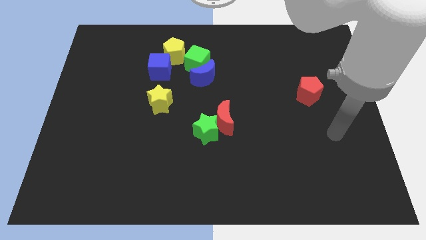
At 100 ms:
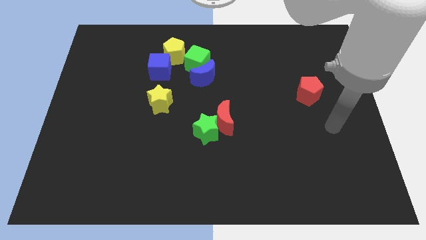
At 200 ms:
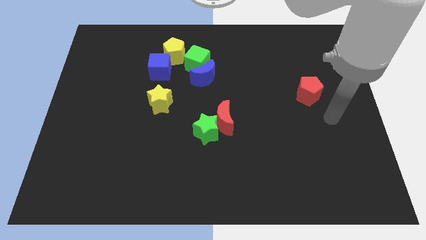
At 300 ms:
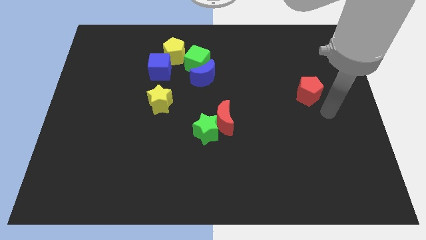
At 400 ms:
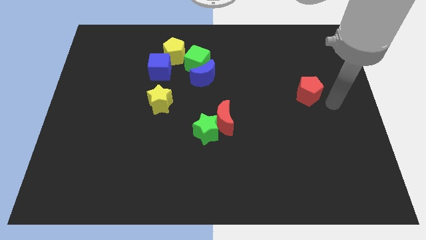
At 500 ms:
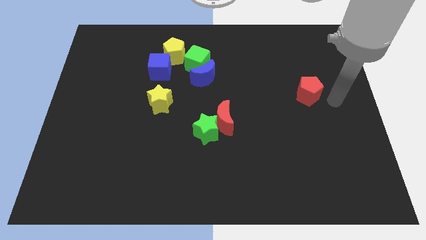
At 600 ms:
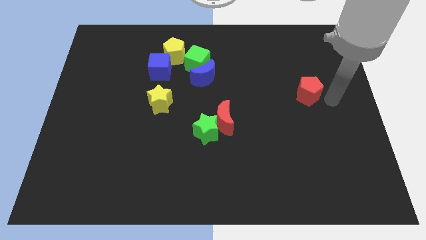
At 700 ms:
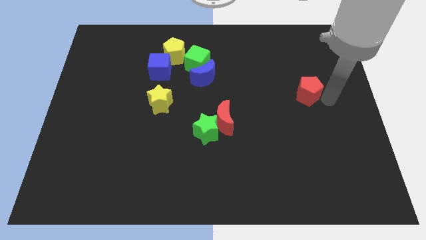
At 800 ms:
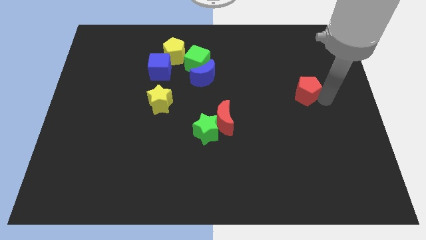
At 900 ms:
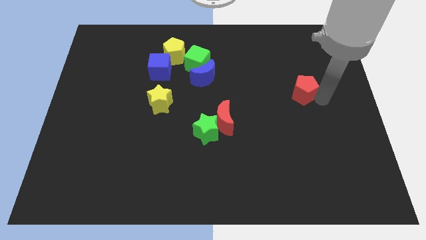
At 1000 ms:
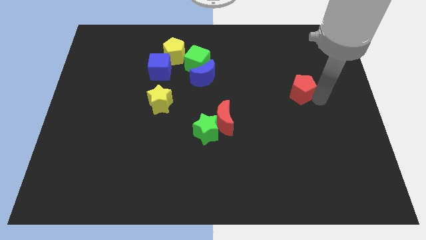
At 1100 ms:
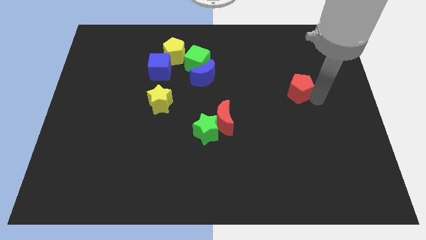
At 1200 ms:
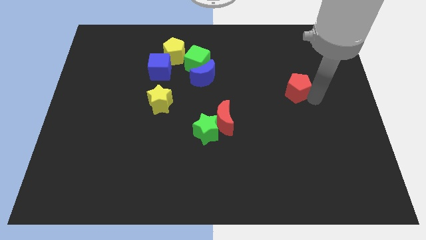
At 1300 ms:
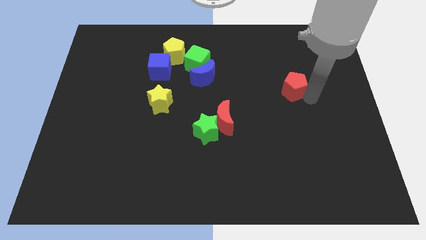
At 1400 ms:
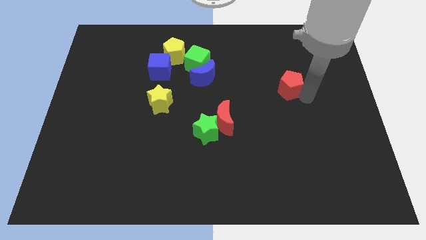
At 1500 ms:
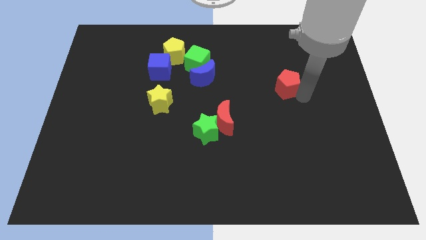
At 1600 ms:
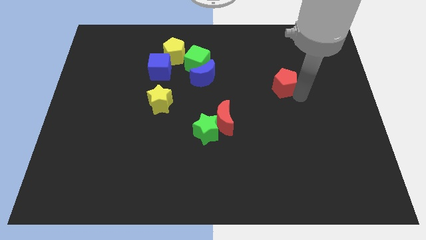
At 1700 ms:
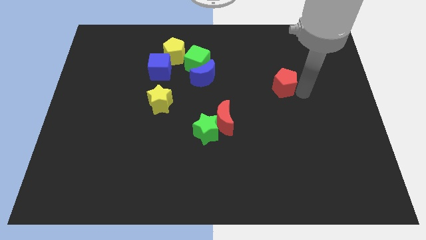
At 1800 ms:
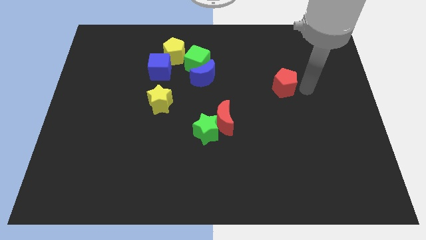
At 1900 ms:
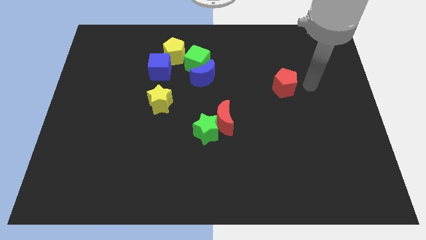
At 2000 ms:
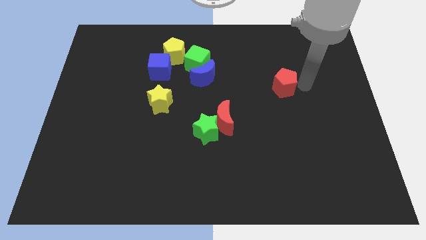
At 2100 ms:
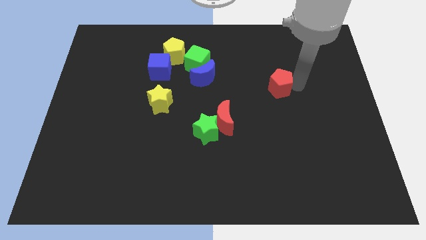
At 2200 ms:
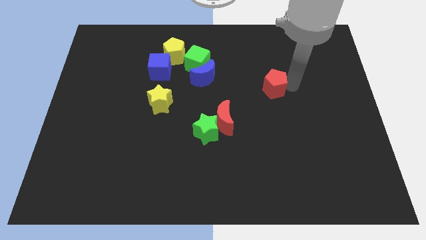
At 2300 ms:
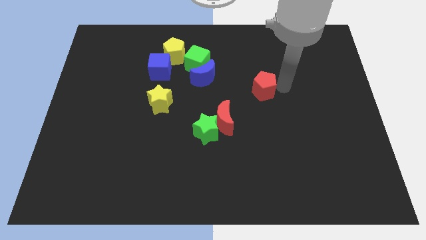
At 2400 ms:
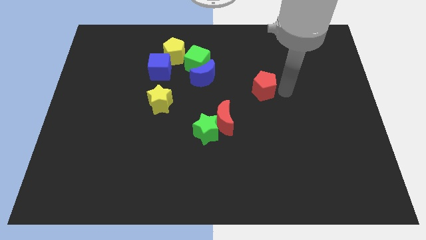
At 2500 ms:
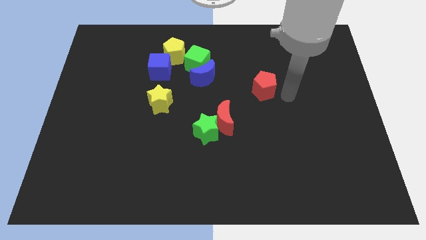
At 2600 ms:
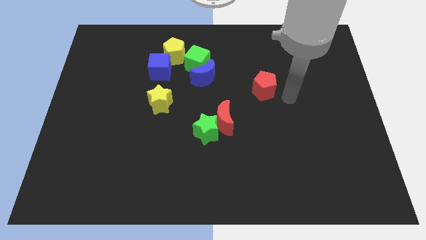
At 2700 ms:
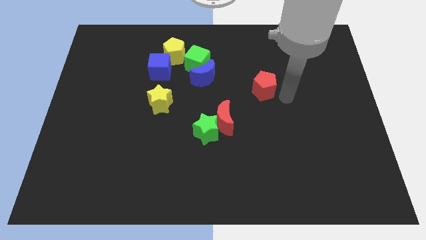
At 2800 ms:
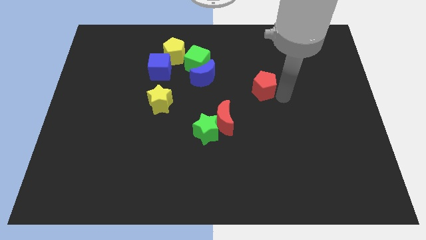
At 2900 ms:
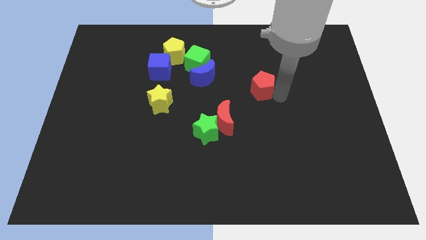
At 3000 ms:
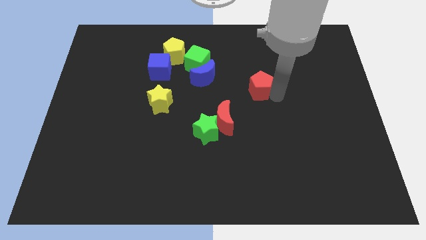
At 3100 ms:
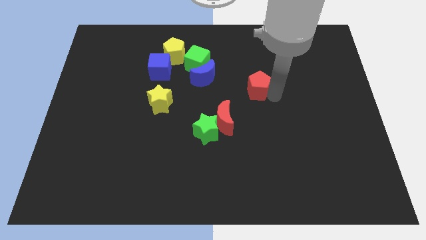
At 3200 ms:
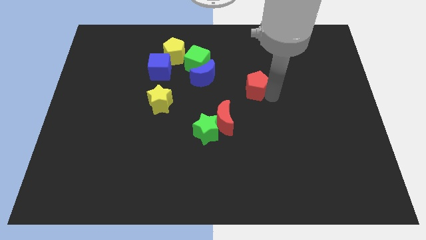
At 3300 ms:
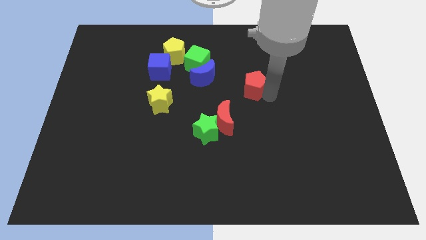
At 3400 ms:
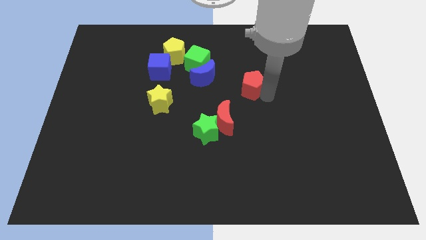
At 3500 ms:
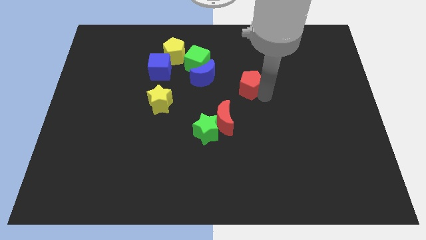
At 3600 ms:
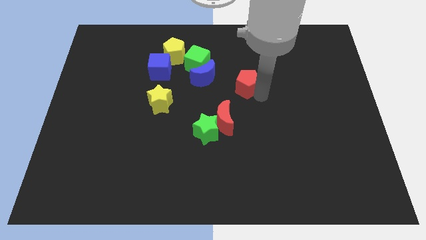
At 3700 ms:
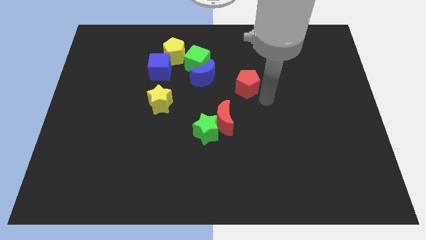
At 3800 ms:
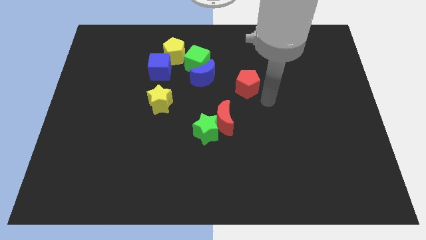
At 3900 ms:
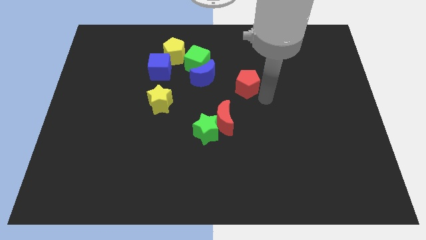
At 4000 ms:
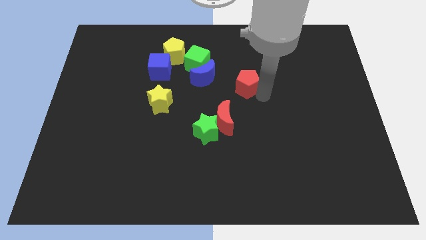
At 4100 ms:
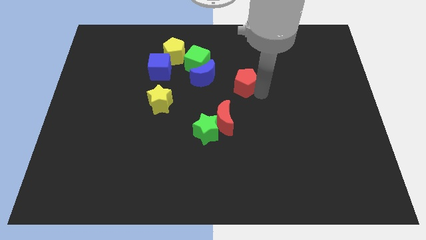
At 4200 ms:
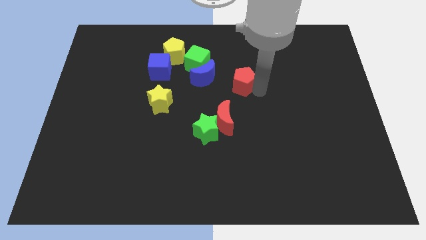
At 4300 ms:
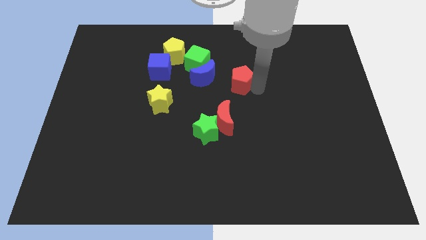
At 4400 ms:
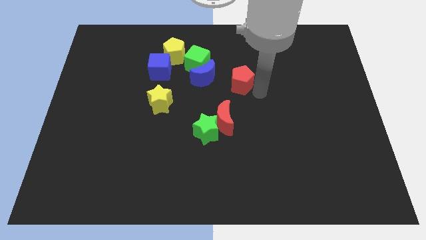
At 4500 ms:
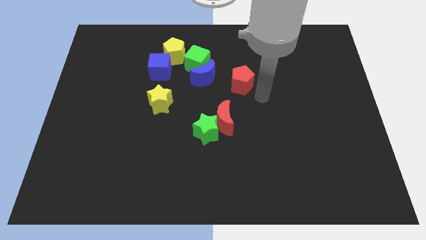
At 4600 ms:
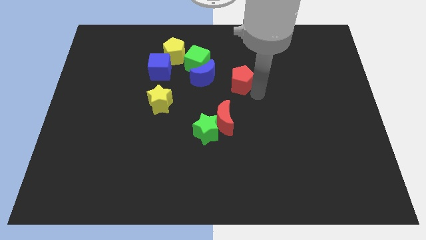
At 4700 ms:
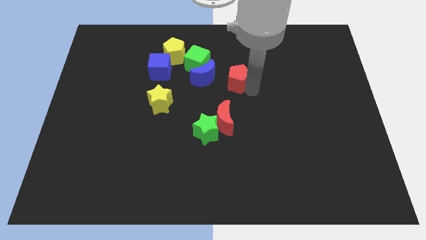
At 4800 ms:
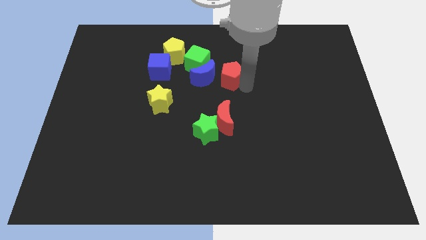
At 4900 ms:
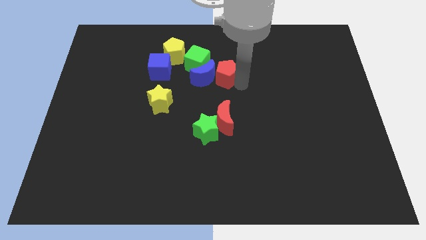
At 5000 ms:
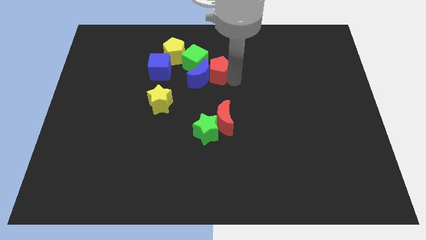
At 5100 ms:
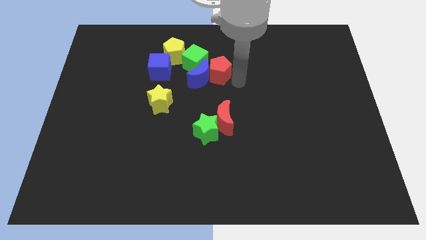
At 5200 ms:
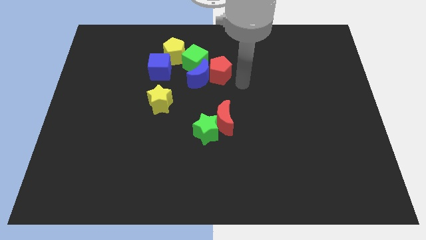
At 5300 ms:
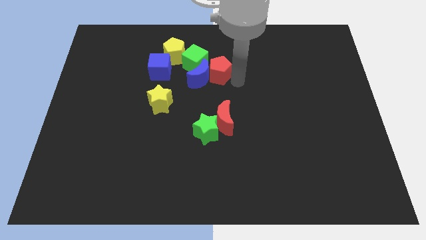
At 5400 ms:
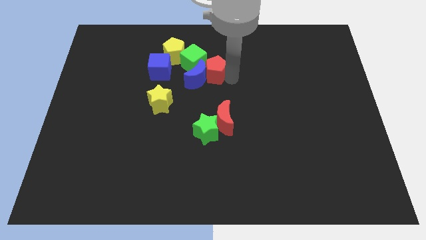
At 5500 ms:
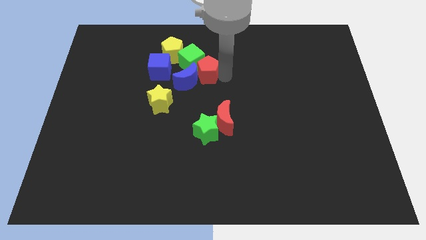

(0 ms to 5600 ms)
slide the red pentagon close to the green cube

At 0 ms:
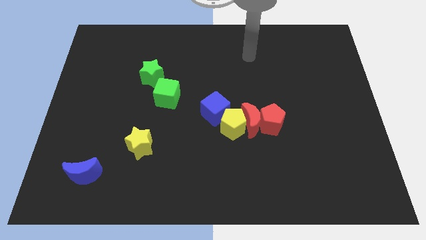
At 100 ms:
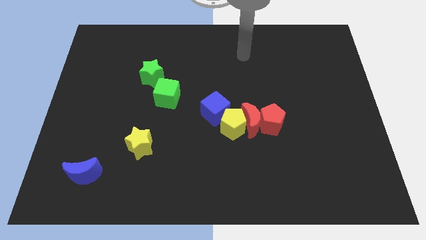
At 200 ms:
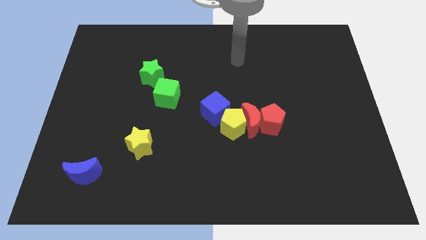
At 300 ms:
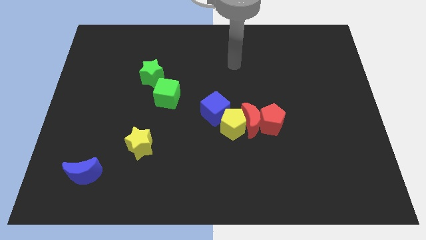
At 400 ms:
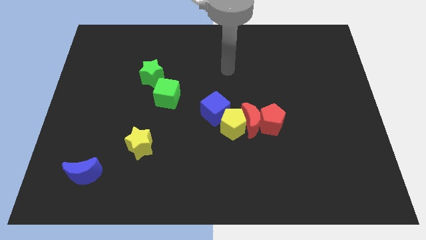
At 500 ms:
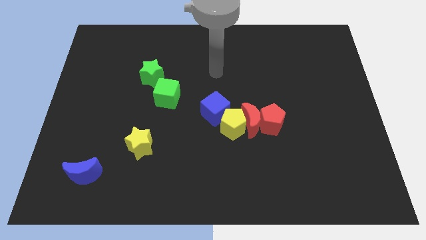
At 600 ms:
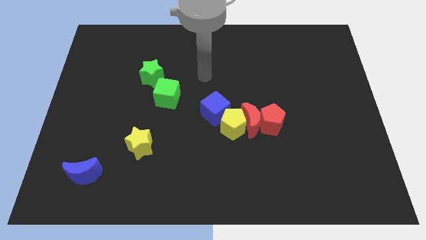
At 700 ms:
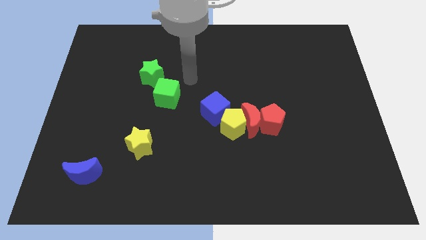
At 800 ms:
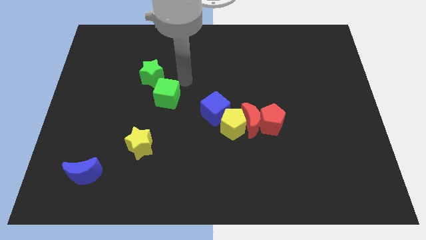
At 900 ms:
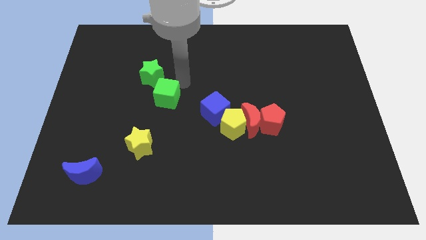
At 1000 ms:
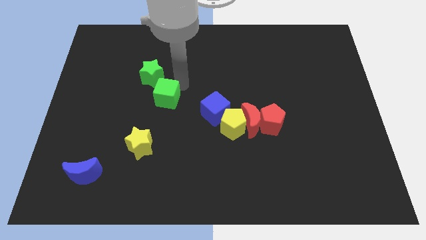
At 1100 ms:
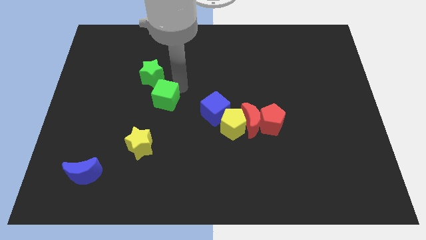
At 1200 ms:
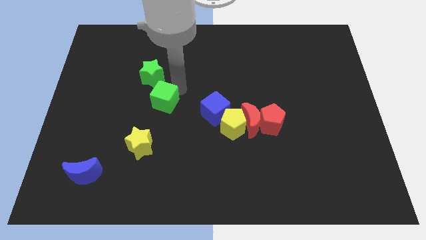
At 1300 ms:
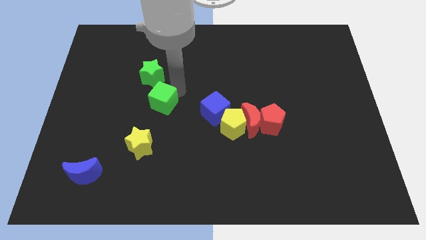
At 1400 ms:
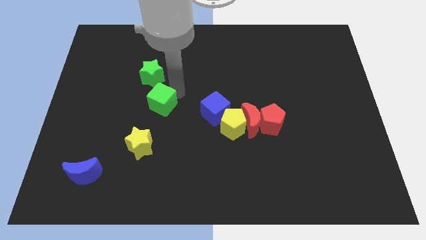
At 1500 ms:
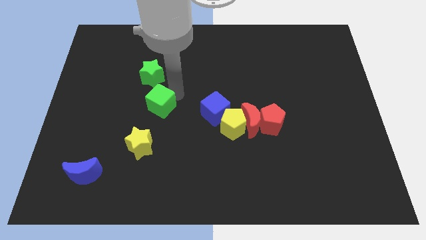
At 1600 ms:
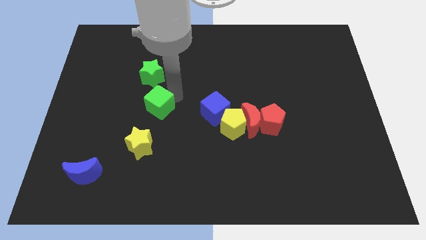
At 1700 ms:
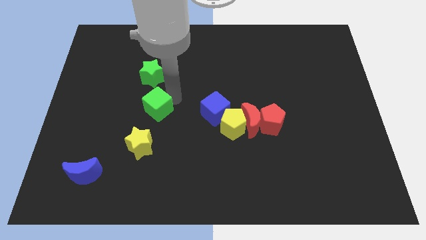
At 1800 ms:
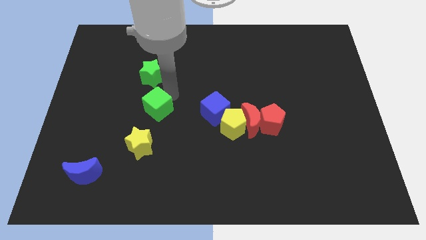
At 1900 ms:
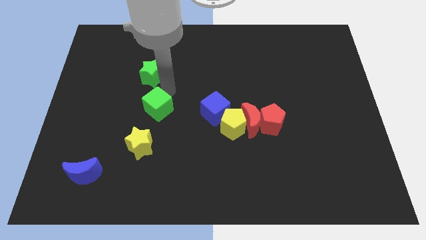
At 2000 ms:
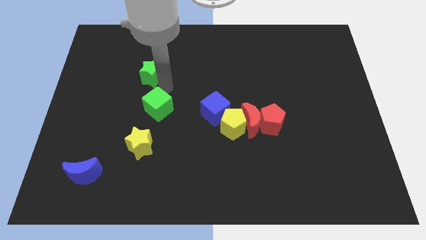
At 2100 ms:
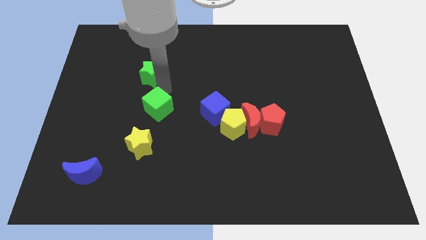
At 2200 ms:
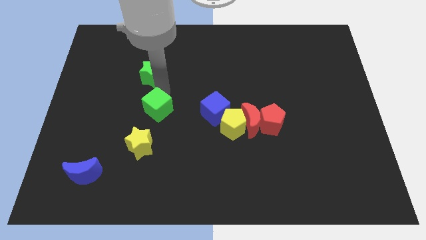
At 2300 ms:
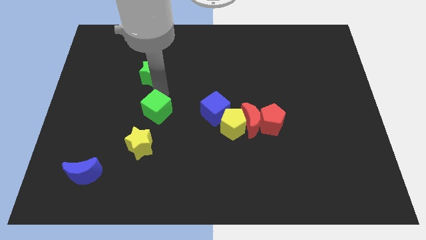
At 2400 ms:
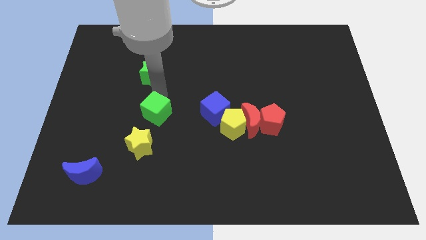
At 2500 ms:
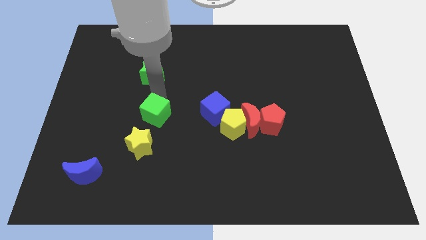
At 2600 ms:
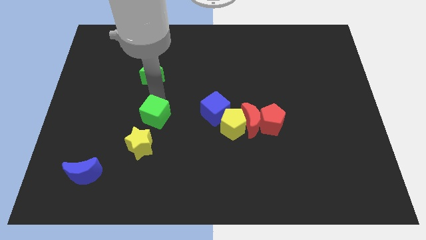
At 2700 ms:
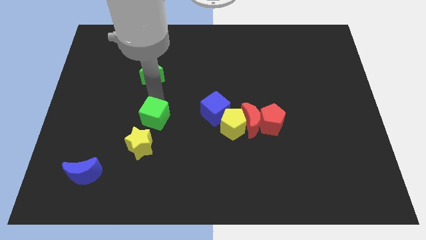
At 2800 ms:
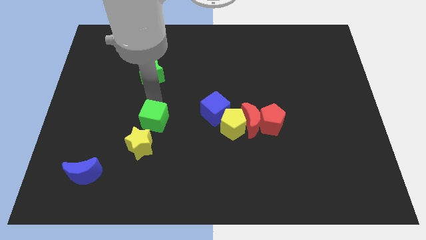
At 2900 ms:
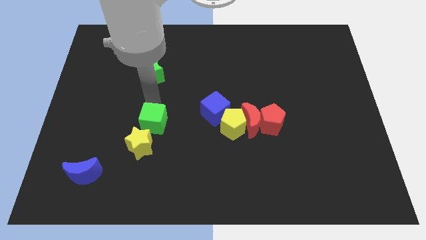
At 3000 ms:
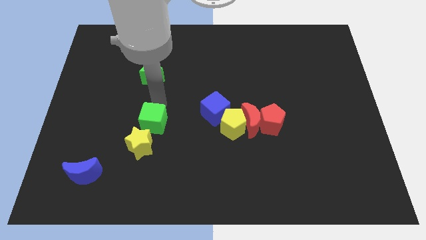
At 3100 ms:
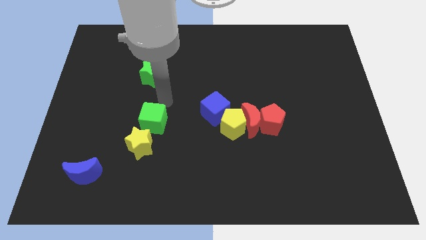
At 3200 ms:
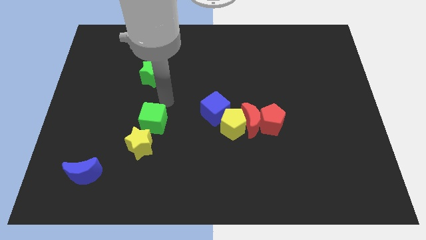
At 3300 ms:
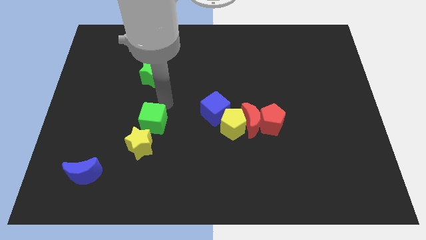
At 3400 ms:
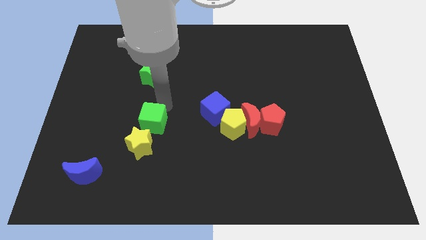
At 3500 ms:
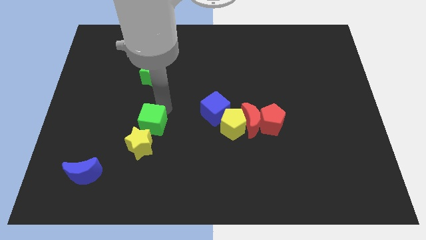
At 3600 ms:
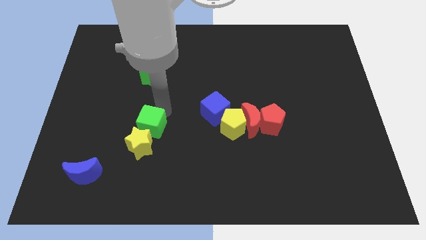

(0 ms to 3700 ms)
slide the green cube to the yellow star
